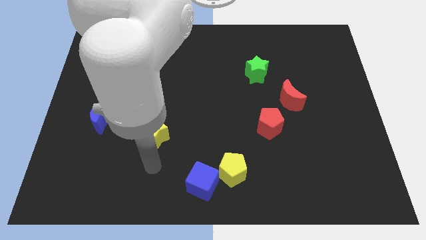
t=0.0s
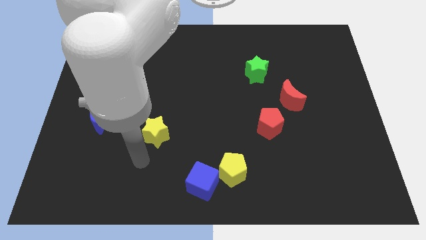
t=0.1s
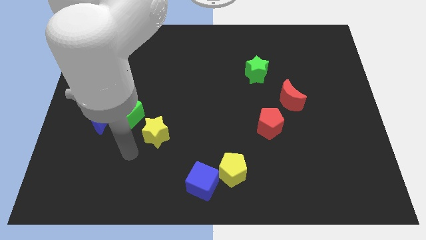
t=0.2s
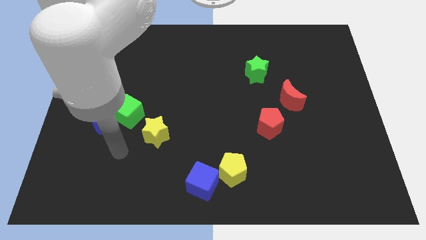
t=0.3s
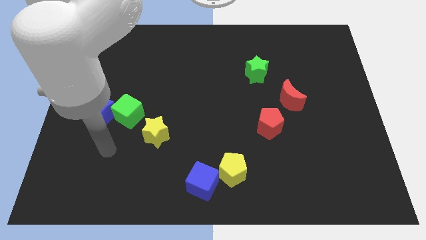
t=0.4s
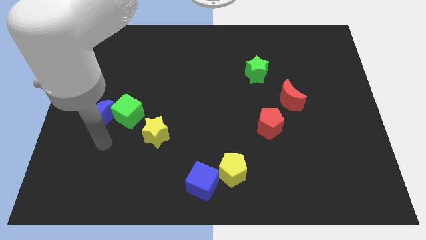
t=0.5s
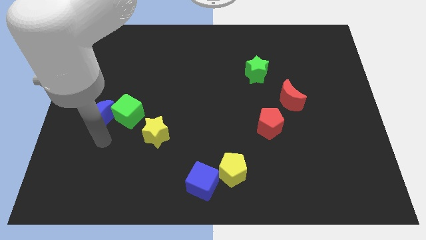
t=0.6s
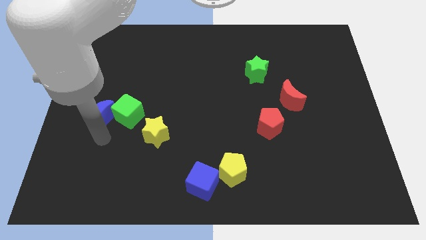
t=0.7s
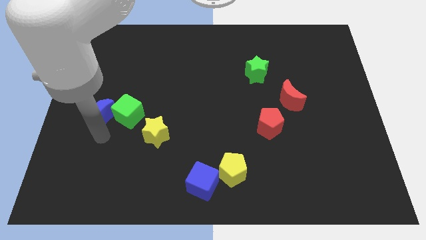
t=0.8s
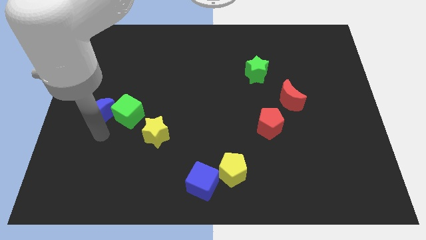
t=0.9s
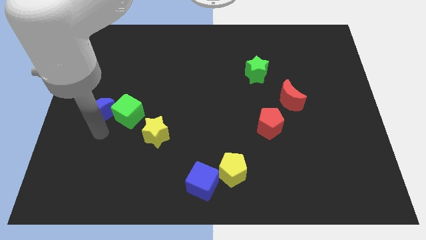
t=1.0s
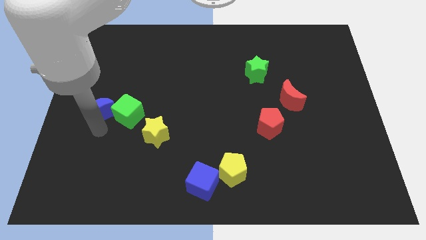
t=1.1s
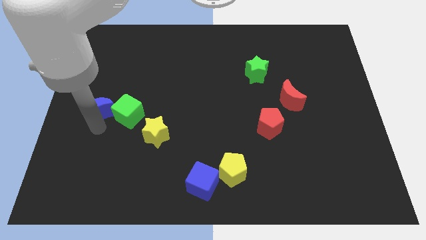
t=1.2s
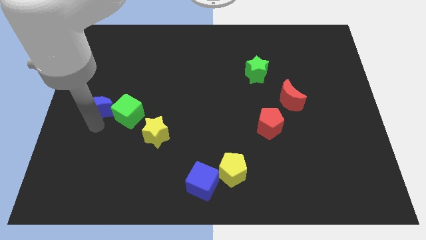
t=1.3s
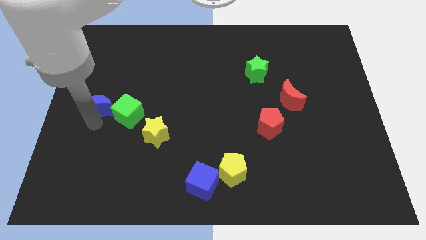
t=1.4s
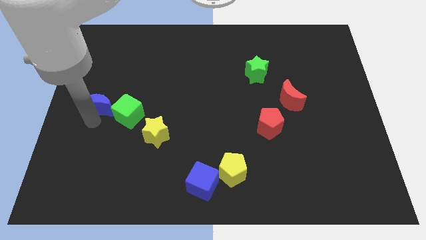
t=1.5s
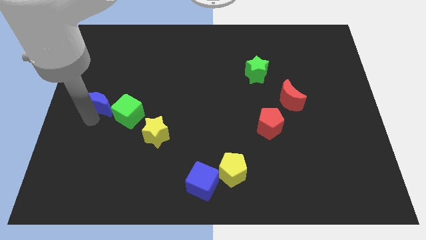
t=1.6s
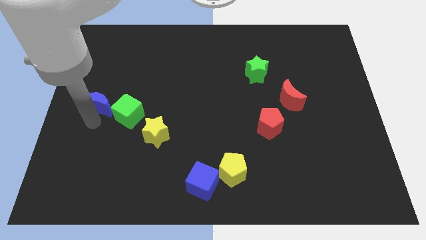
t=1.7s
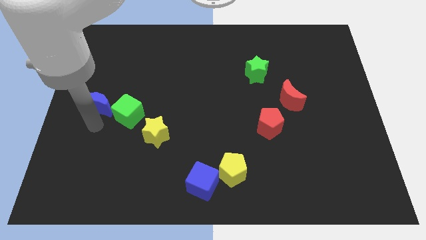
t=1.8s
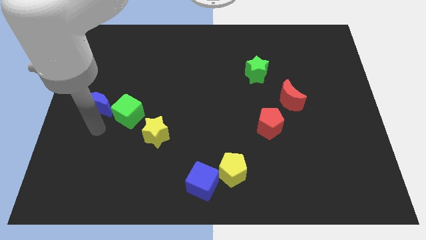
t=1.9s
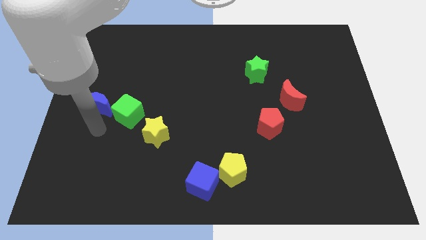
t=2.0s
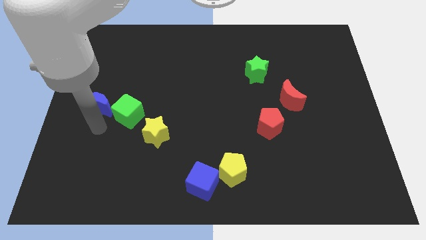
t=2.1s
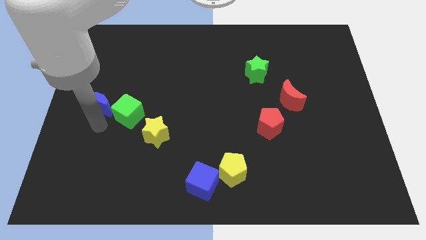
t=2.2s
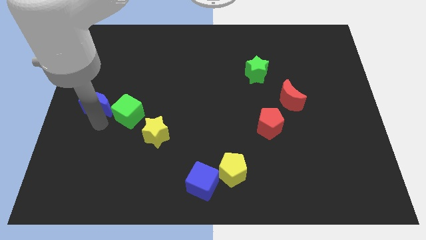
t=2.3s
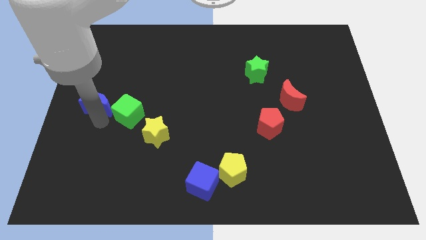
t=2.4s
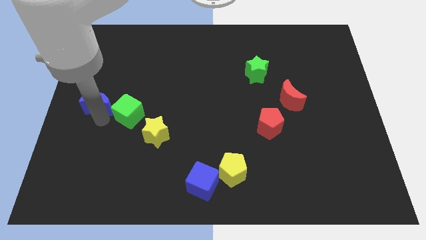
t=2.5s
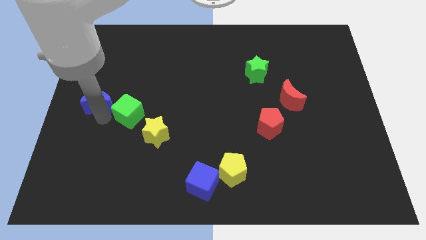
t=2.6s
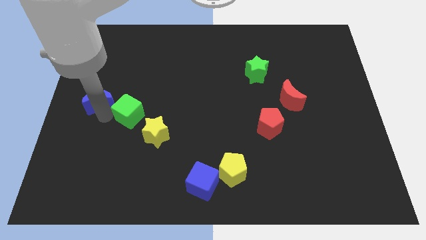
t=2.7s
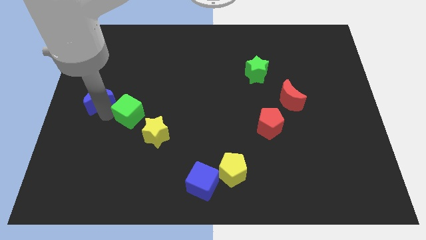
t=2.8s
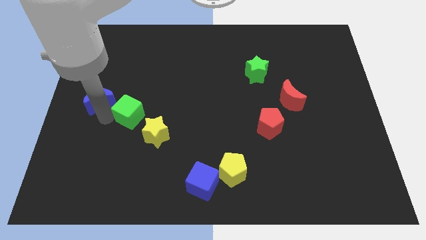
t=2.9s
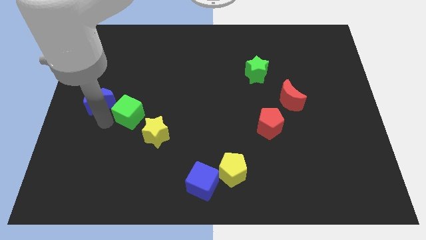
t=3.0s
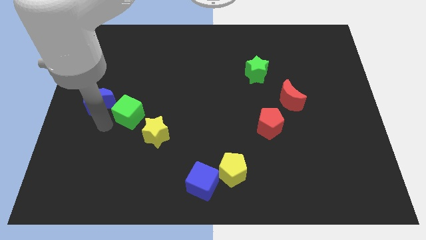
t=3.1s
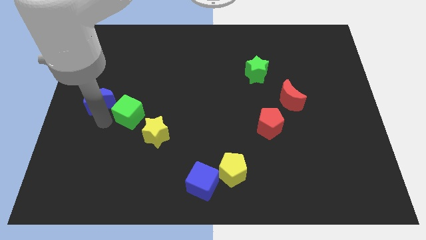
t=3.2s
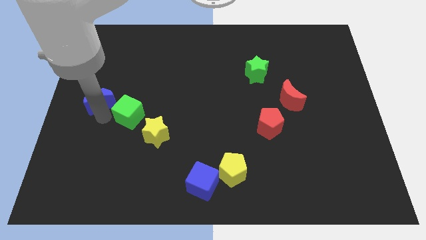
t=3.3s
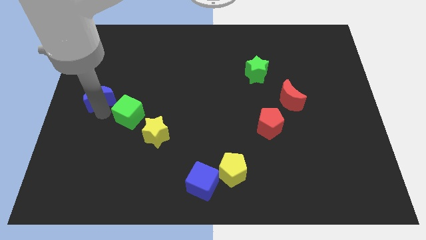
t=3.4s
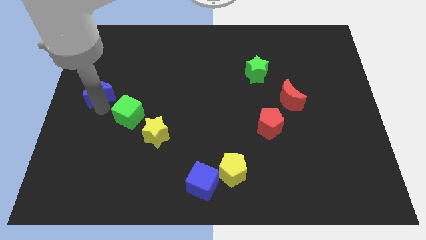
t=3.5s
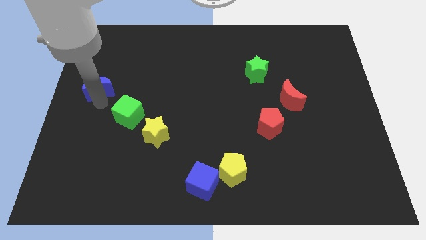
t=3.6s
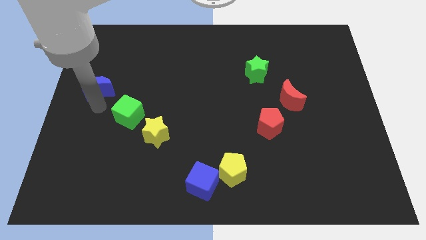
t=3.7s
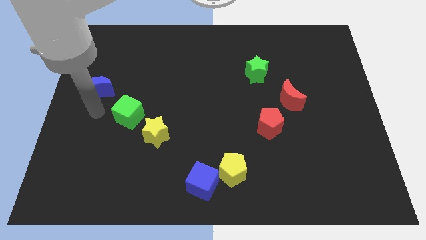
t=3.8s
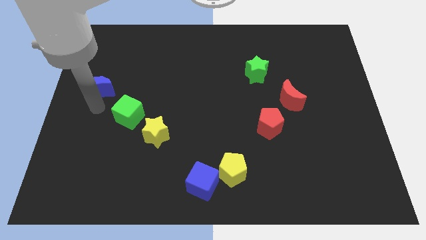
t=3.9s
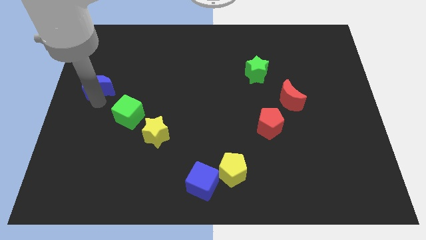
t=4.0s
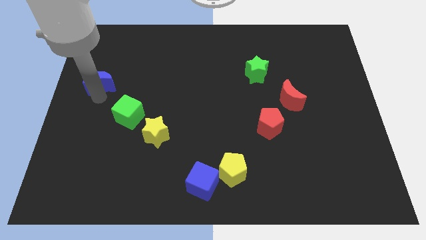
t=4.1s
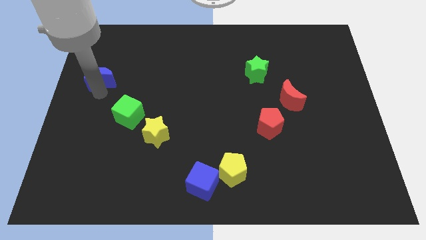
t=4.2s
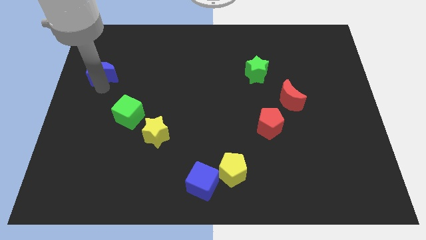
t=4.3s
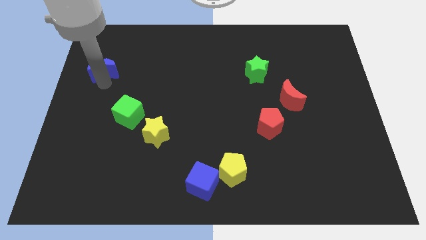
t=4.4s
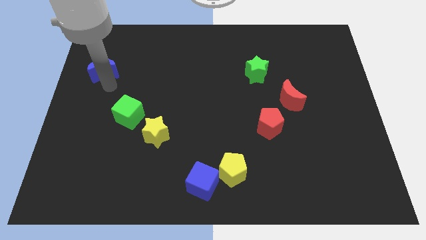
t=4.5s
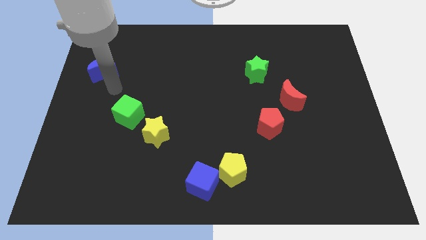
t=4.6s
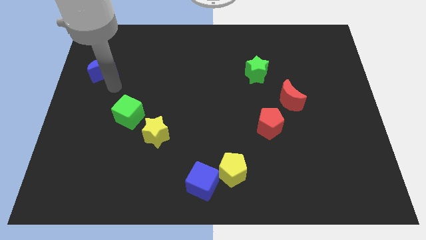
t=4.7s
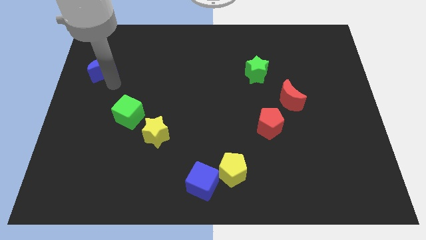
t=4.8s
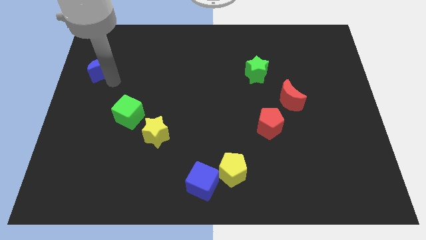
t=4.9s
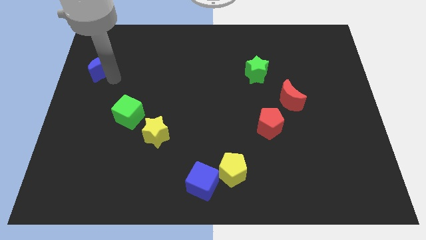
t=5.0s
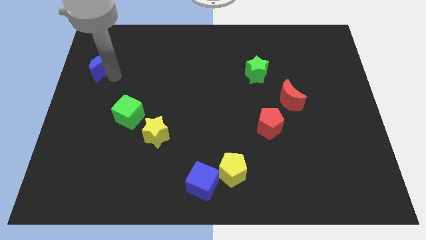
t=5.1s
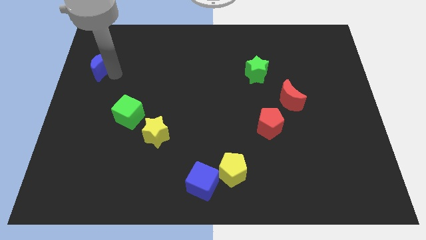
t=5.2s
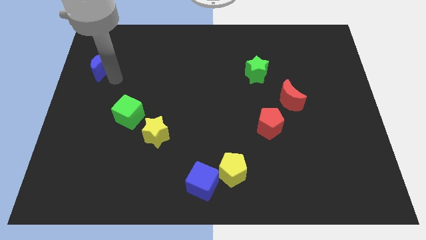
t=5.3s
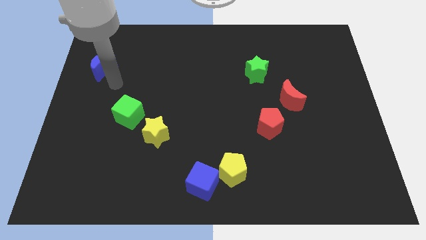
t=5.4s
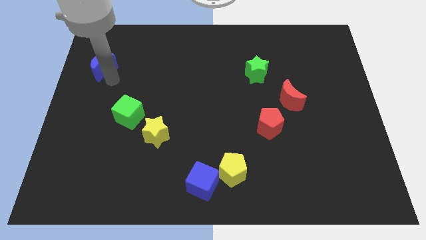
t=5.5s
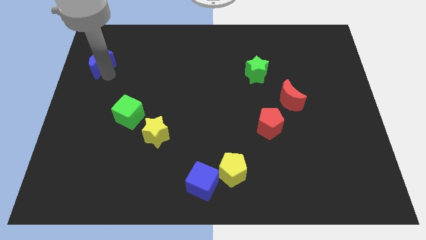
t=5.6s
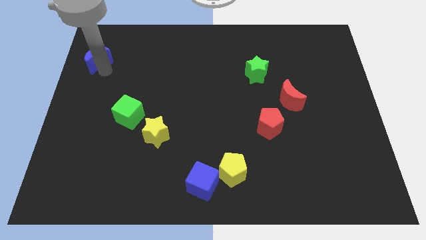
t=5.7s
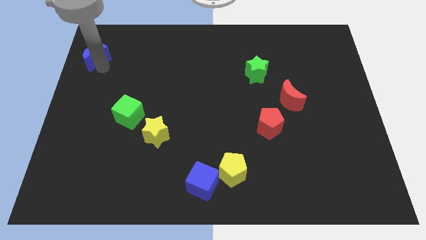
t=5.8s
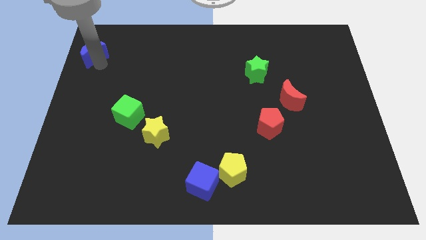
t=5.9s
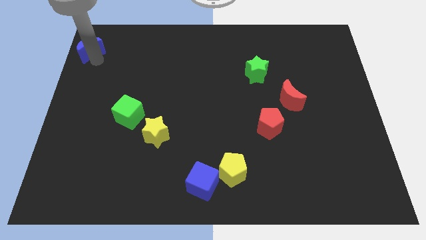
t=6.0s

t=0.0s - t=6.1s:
move the blue moon to the top left of the board
